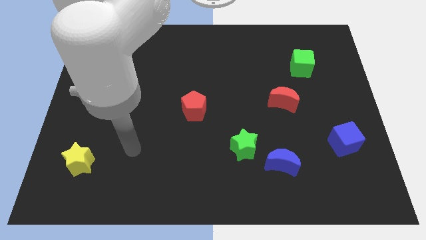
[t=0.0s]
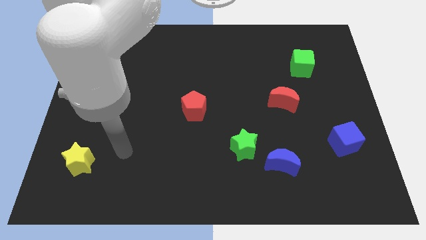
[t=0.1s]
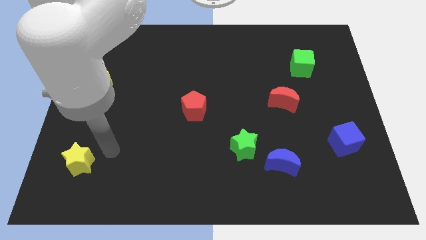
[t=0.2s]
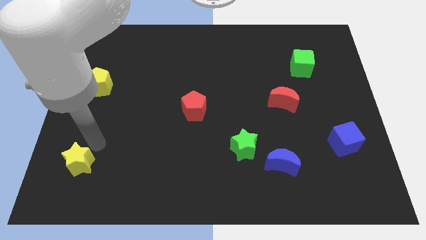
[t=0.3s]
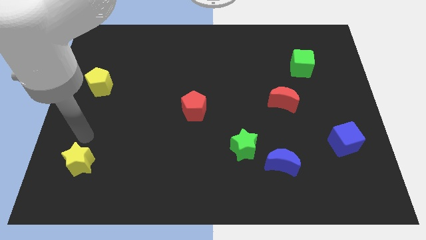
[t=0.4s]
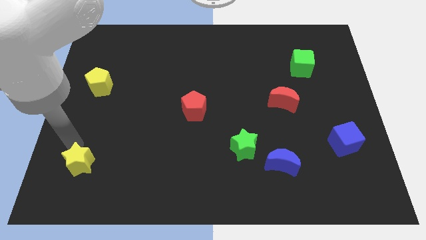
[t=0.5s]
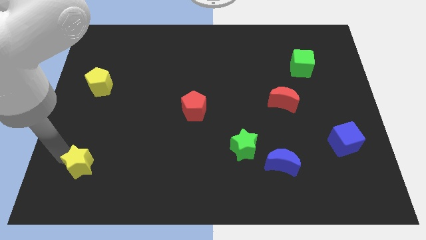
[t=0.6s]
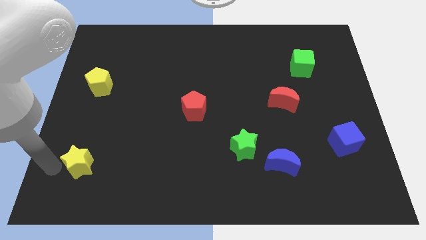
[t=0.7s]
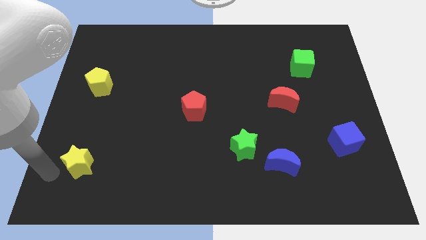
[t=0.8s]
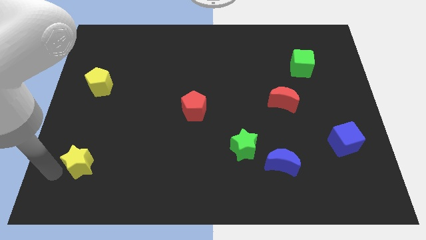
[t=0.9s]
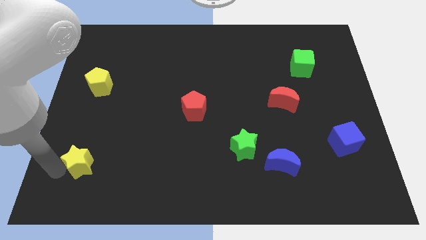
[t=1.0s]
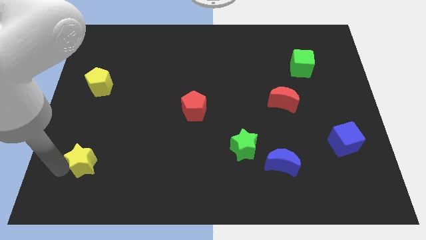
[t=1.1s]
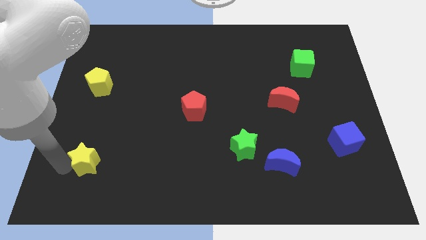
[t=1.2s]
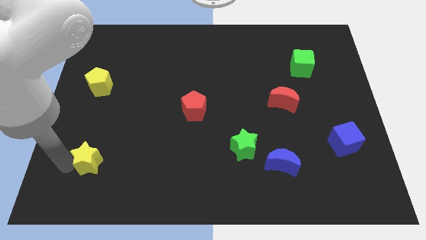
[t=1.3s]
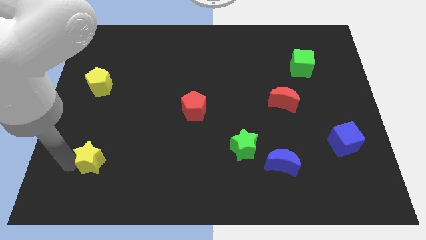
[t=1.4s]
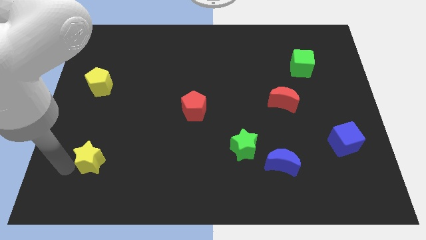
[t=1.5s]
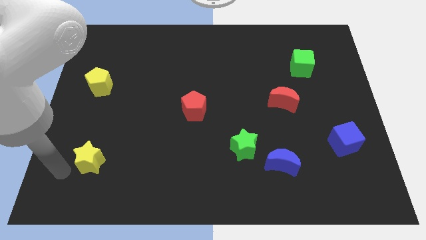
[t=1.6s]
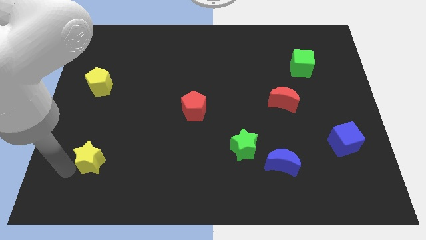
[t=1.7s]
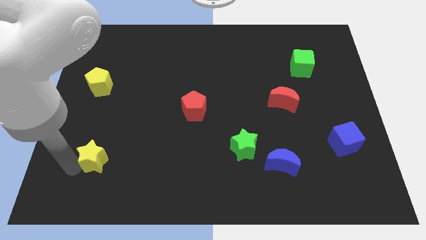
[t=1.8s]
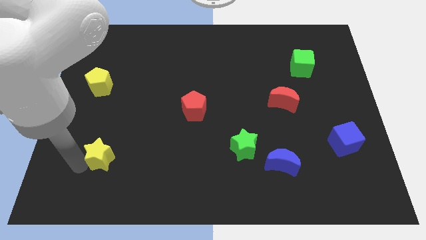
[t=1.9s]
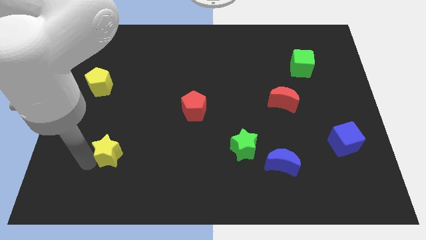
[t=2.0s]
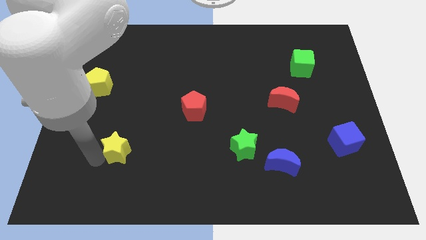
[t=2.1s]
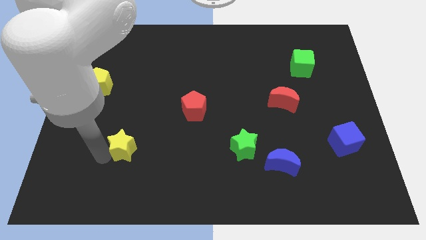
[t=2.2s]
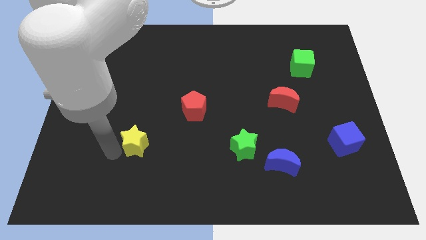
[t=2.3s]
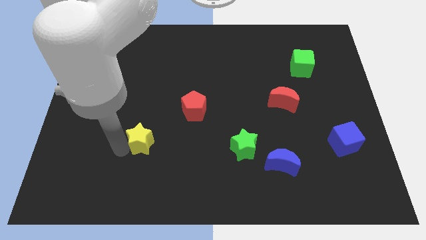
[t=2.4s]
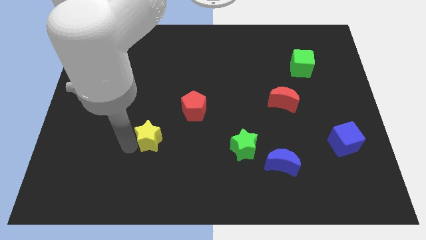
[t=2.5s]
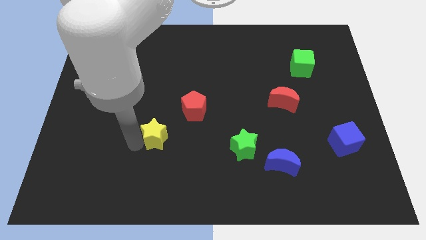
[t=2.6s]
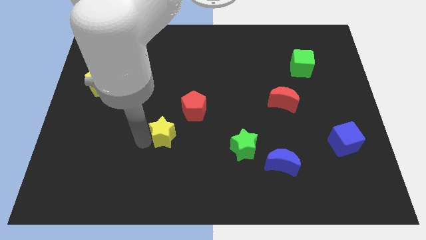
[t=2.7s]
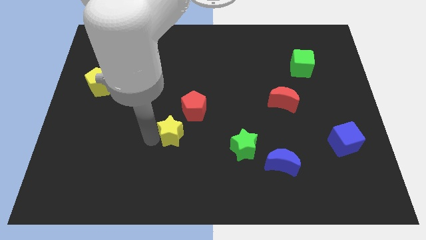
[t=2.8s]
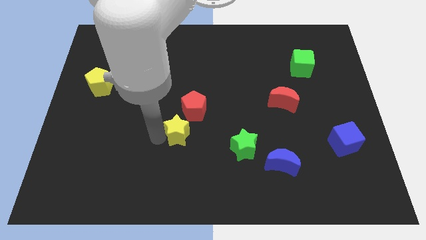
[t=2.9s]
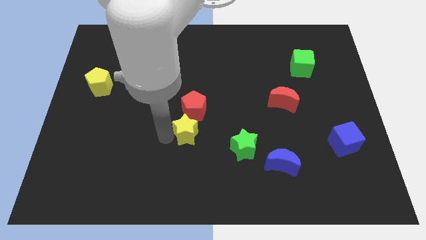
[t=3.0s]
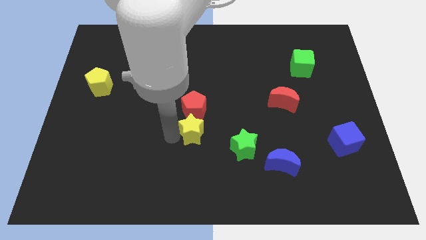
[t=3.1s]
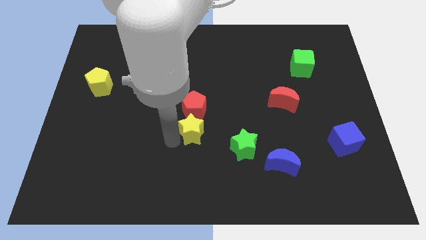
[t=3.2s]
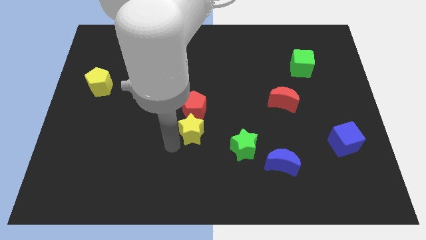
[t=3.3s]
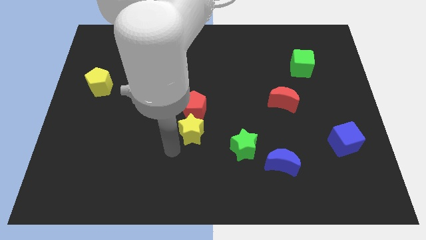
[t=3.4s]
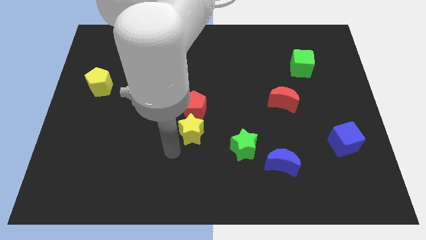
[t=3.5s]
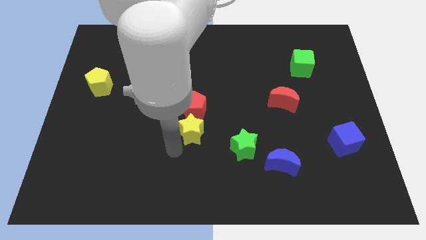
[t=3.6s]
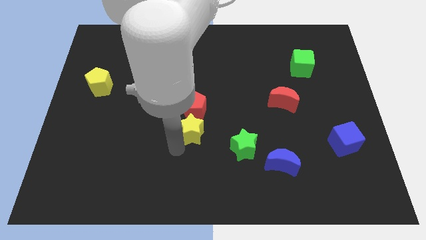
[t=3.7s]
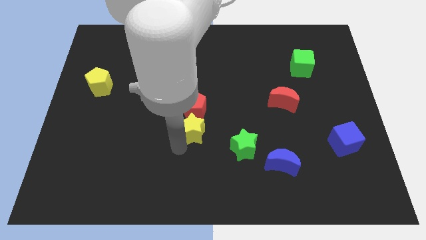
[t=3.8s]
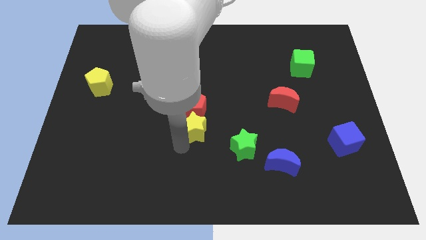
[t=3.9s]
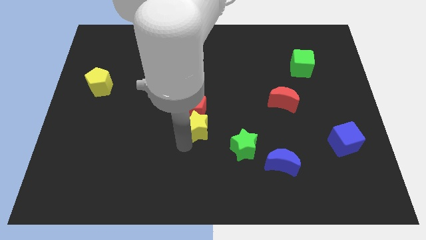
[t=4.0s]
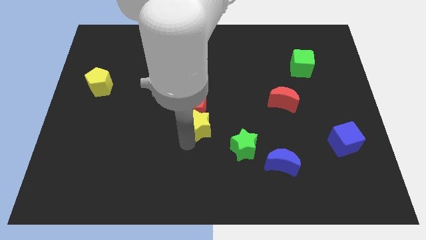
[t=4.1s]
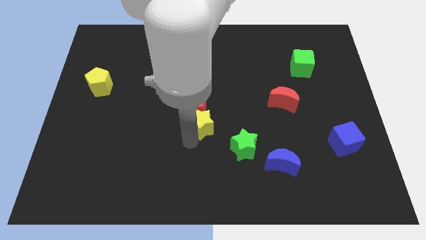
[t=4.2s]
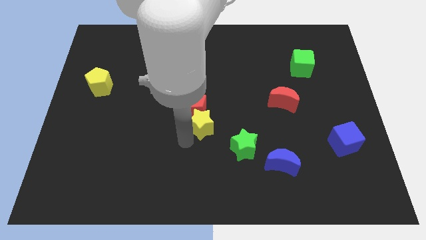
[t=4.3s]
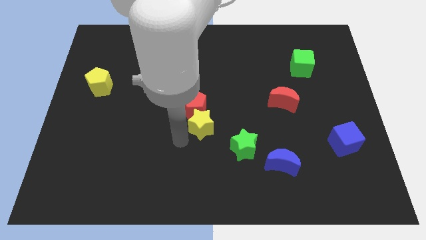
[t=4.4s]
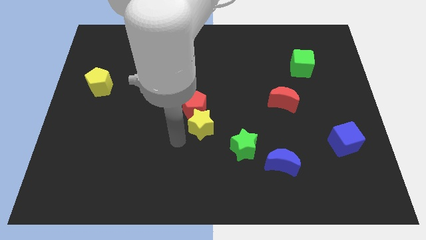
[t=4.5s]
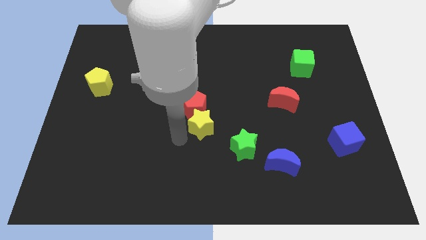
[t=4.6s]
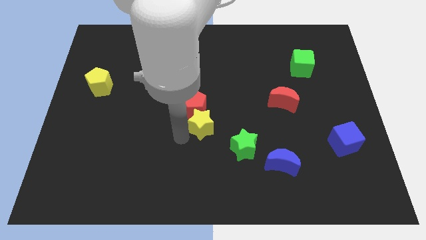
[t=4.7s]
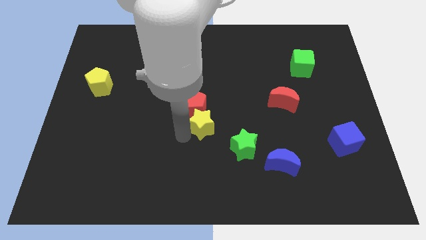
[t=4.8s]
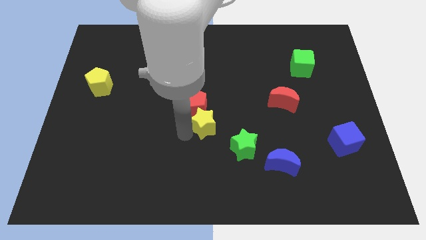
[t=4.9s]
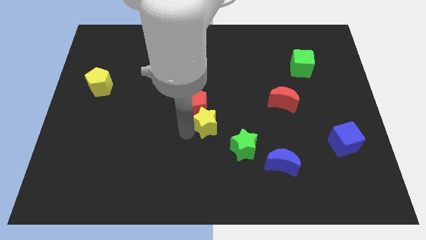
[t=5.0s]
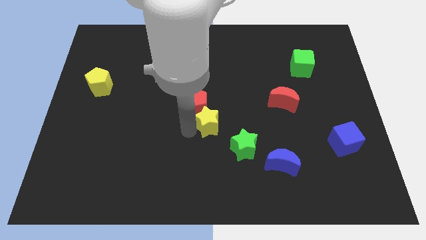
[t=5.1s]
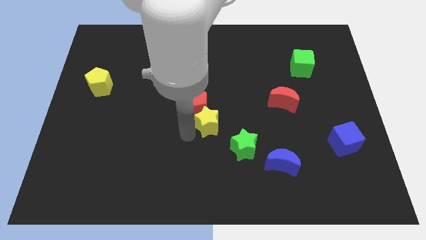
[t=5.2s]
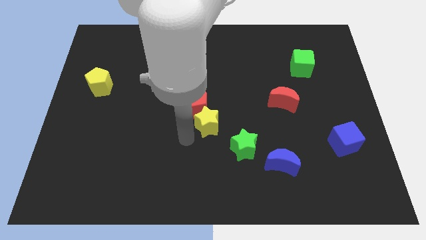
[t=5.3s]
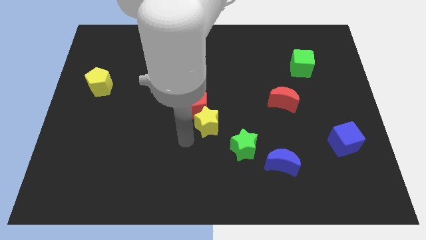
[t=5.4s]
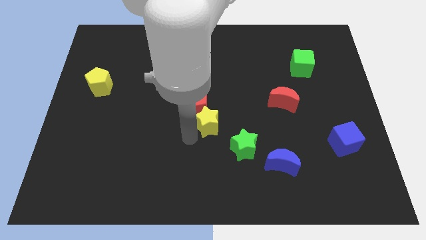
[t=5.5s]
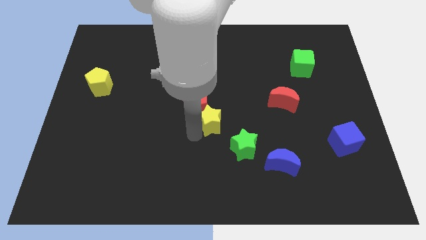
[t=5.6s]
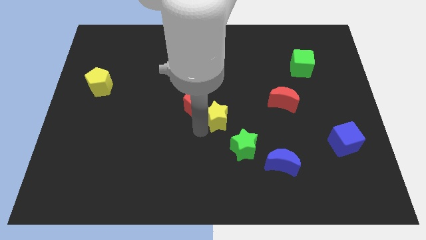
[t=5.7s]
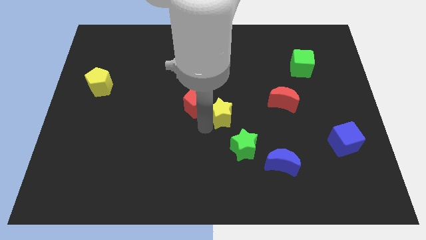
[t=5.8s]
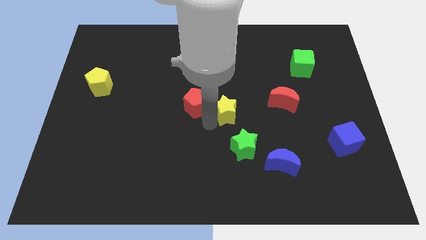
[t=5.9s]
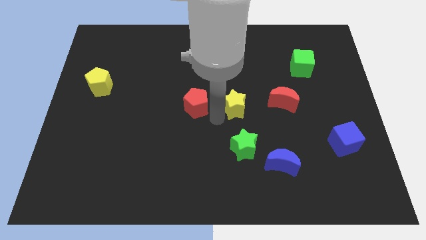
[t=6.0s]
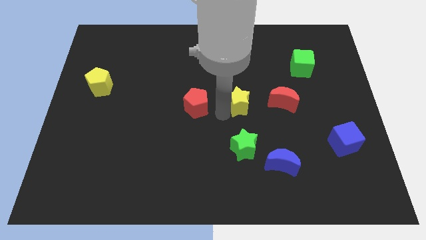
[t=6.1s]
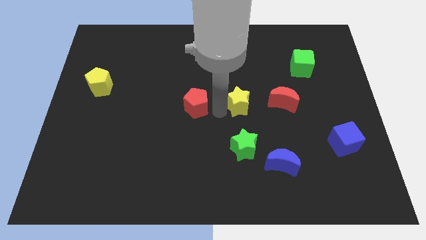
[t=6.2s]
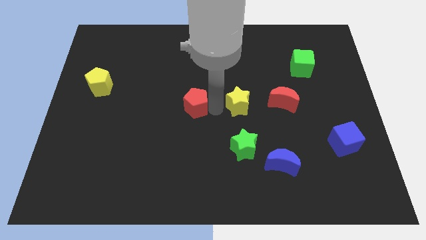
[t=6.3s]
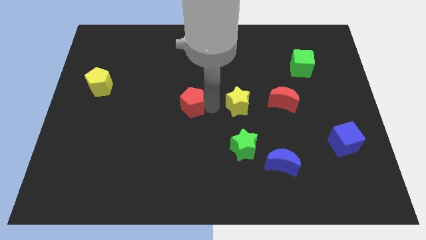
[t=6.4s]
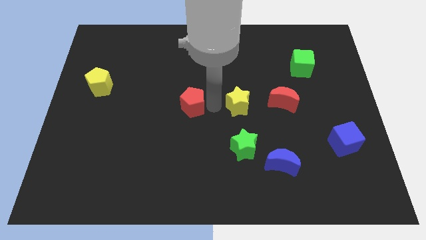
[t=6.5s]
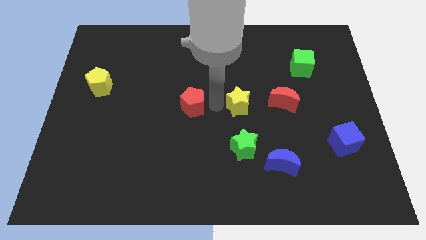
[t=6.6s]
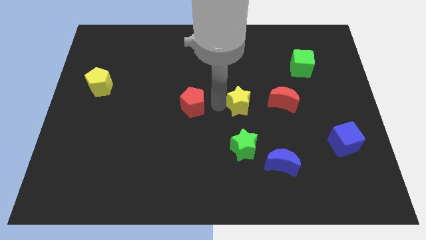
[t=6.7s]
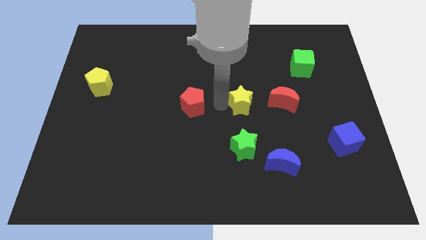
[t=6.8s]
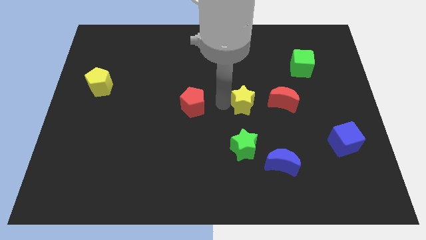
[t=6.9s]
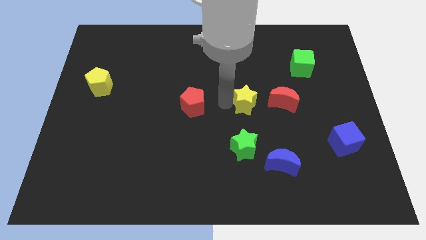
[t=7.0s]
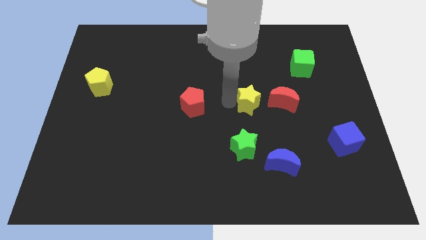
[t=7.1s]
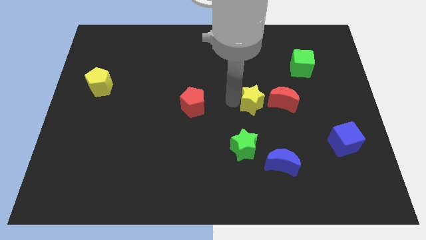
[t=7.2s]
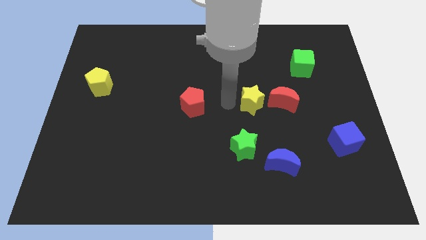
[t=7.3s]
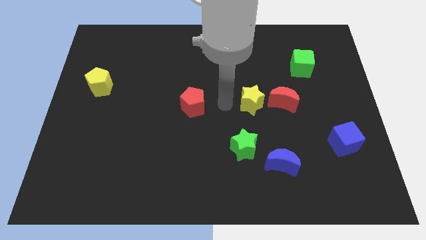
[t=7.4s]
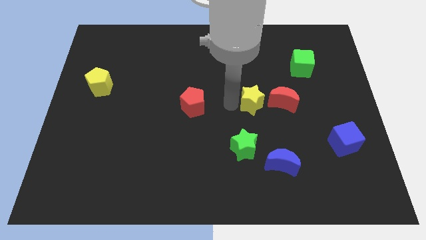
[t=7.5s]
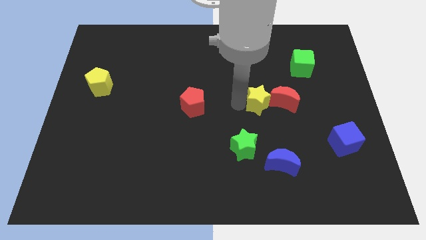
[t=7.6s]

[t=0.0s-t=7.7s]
move the yellow star towards the red moon
